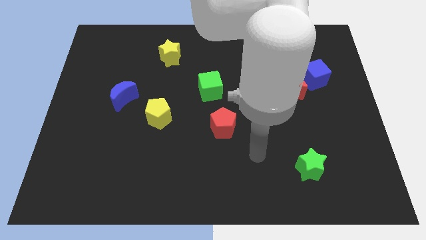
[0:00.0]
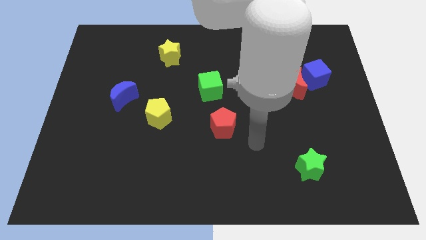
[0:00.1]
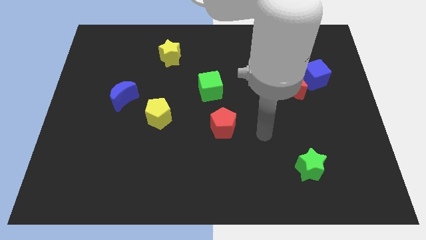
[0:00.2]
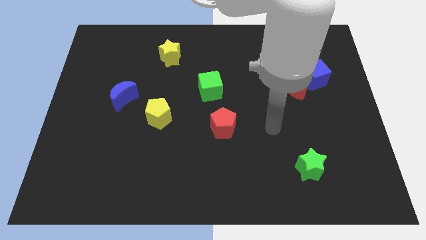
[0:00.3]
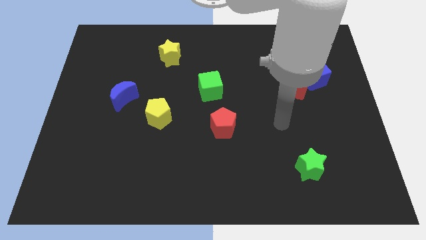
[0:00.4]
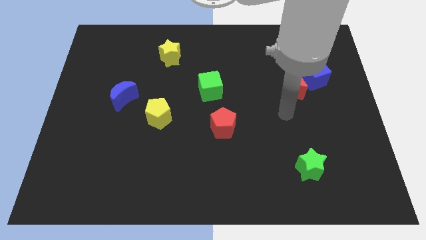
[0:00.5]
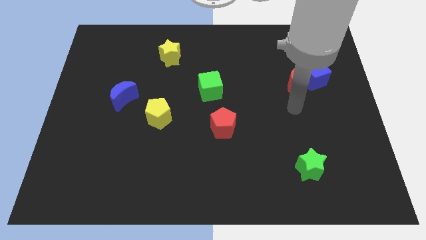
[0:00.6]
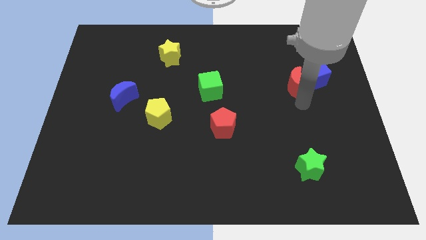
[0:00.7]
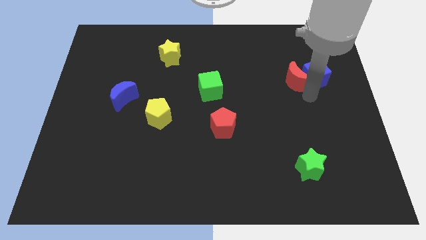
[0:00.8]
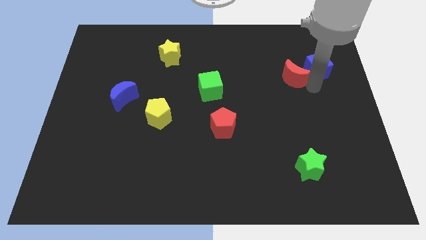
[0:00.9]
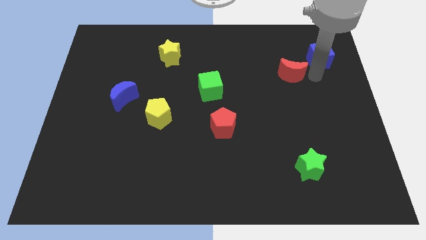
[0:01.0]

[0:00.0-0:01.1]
separate the red moon from the blue cube

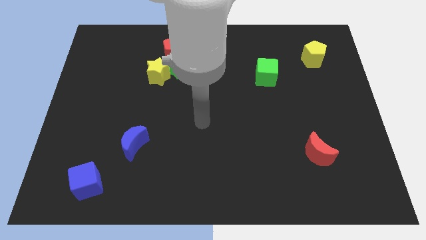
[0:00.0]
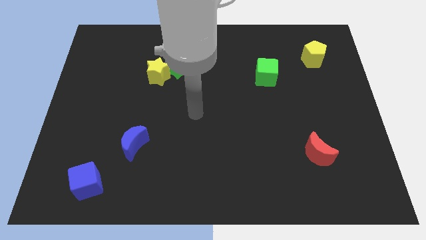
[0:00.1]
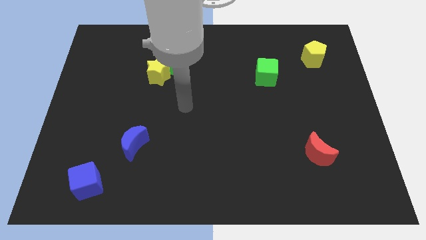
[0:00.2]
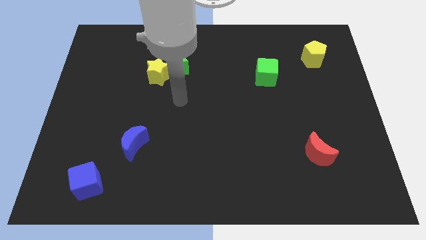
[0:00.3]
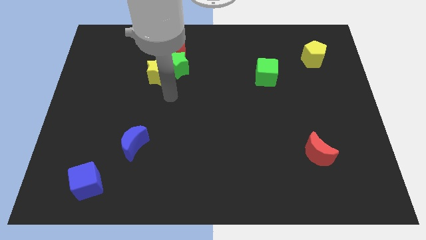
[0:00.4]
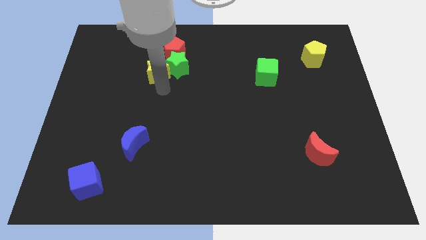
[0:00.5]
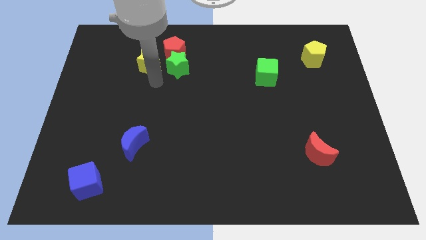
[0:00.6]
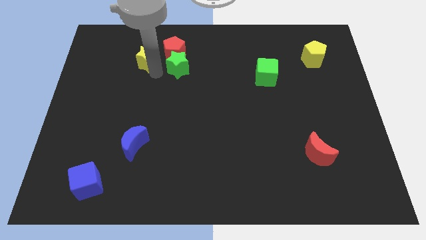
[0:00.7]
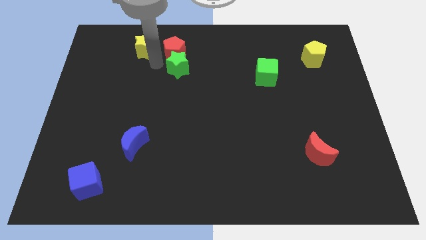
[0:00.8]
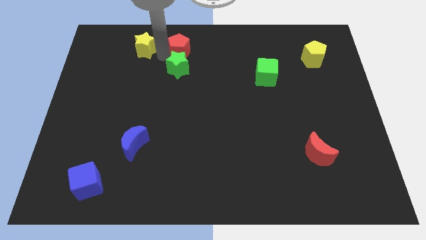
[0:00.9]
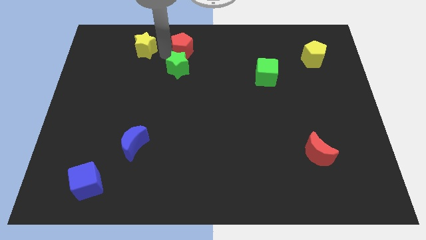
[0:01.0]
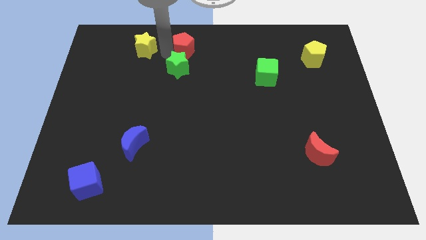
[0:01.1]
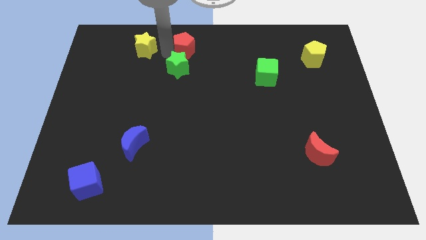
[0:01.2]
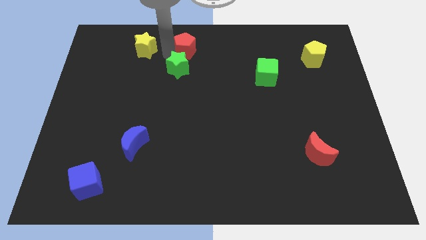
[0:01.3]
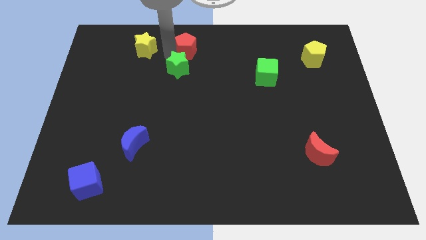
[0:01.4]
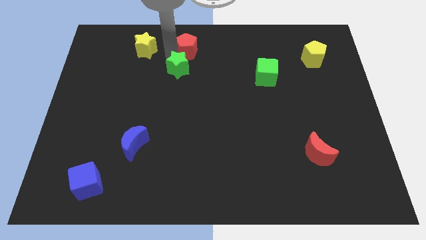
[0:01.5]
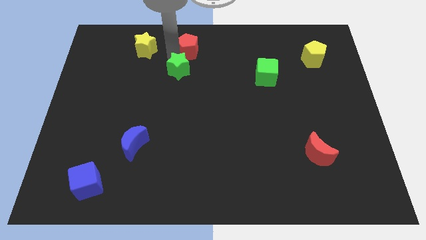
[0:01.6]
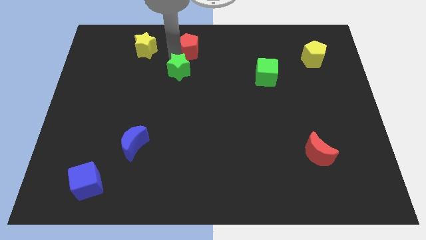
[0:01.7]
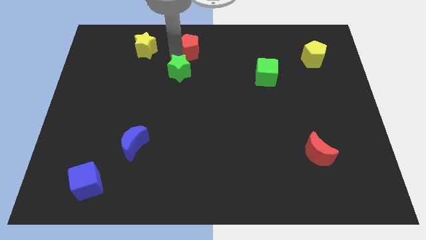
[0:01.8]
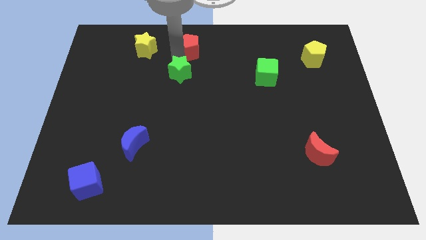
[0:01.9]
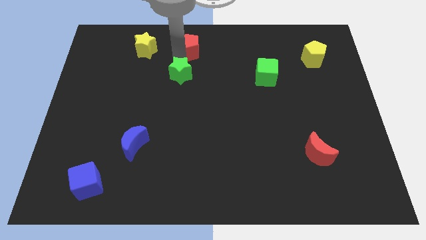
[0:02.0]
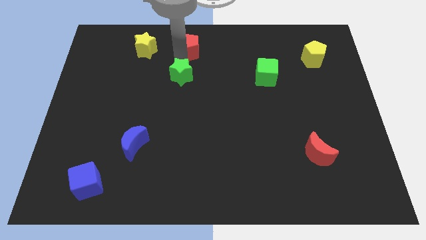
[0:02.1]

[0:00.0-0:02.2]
pull the green star apart from the red pentagon and yellow star

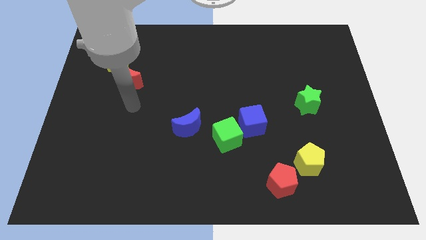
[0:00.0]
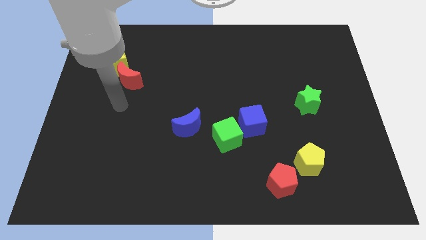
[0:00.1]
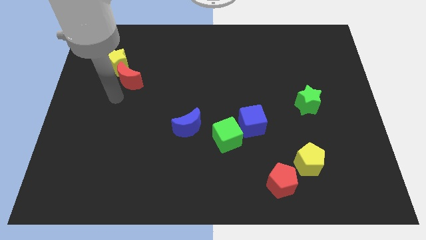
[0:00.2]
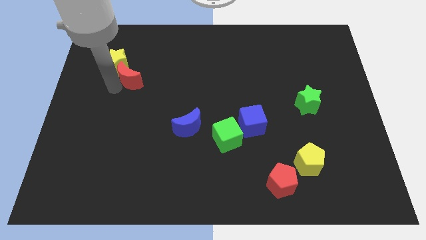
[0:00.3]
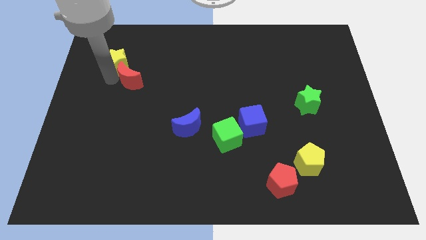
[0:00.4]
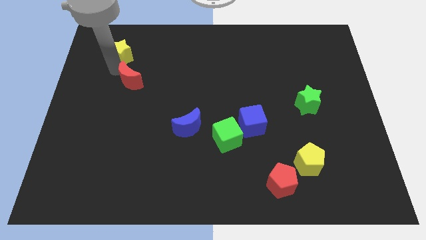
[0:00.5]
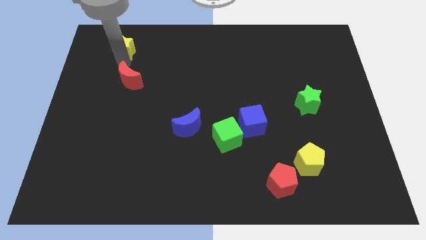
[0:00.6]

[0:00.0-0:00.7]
separate the red moon from the yellow star

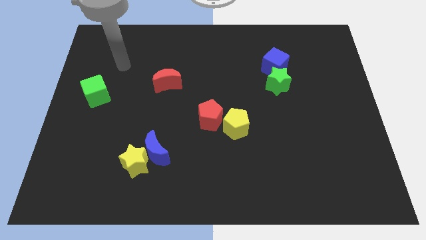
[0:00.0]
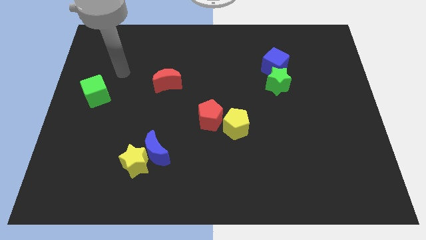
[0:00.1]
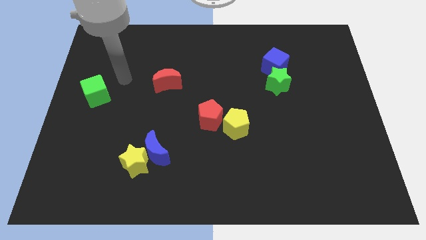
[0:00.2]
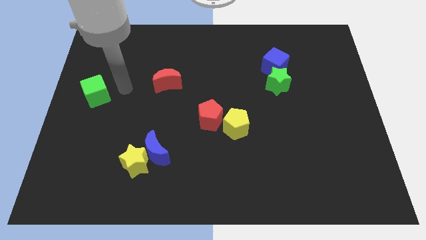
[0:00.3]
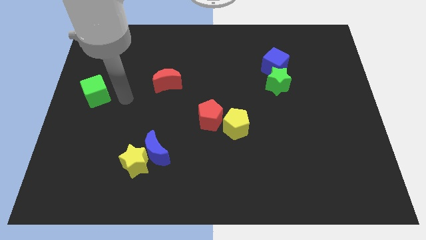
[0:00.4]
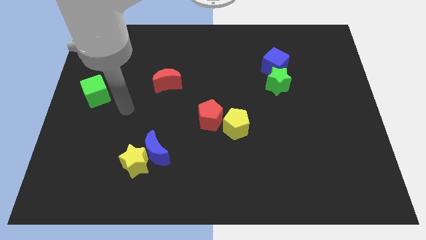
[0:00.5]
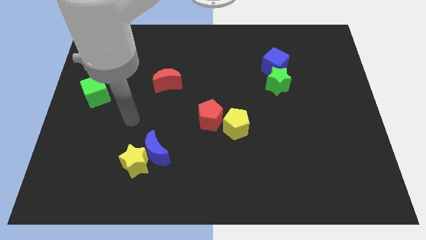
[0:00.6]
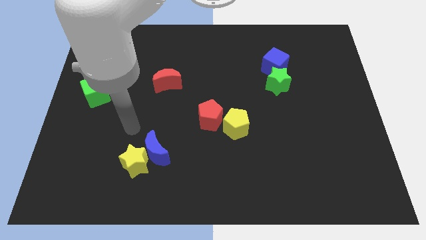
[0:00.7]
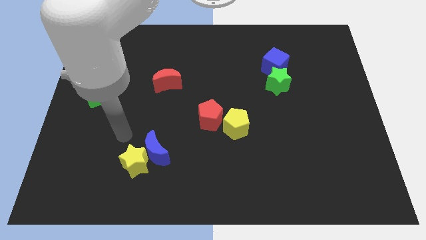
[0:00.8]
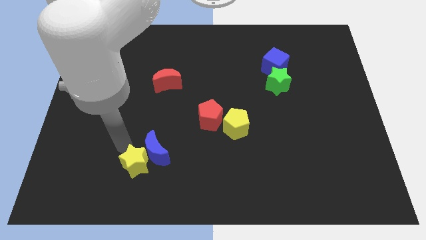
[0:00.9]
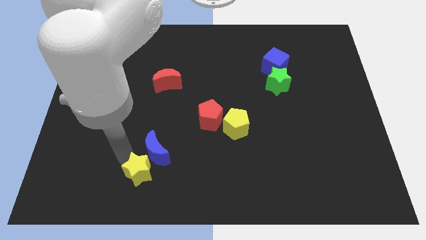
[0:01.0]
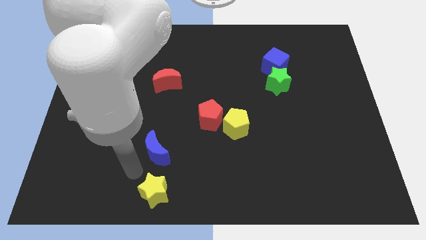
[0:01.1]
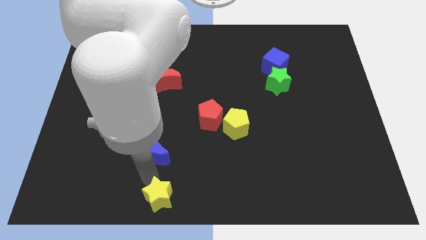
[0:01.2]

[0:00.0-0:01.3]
move the blue moon away from the yellow star

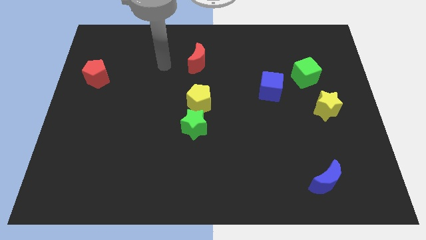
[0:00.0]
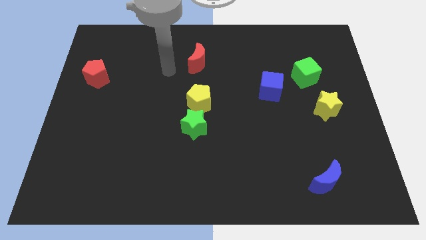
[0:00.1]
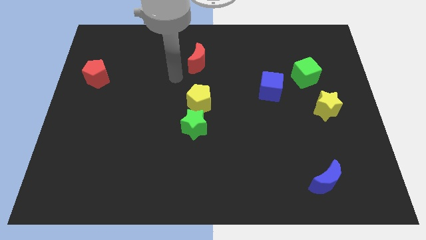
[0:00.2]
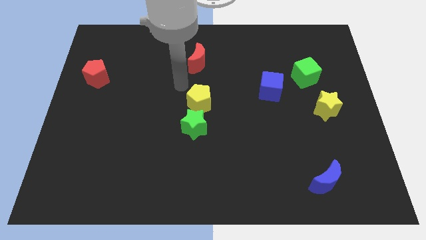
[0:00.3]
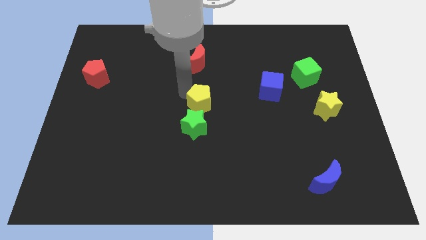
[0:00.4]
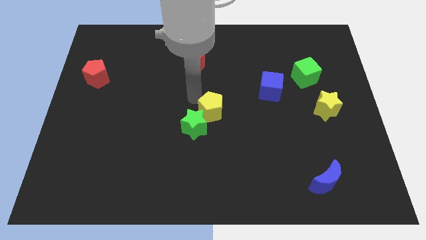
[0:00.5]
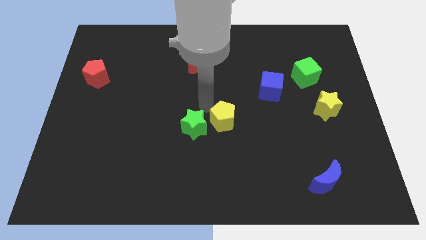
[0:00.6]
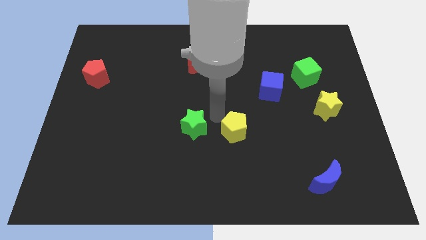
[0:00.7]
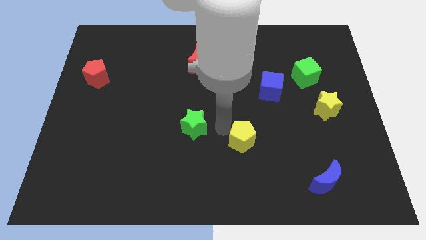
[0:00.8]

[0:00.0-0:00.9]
move the green star away from the yellow pentagon

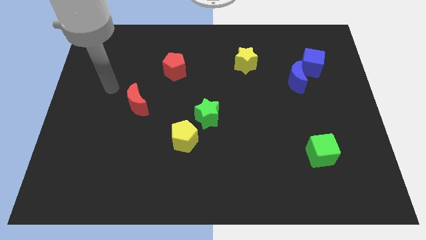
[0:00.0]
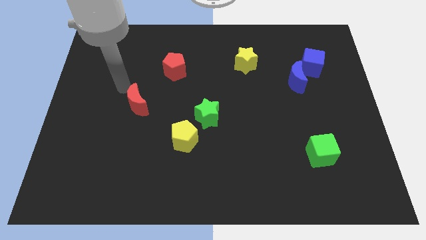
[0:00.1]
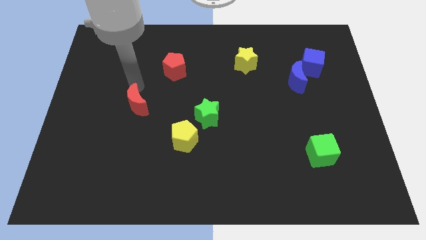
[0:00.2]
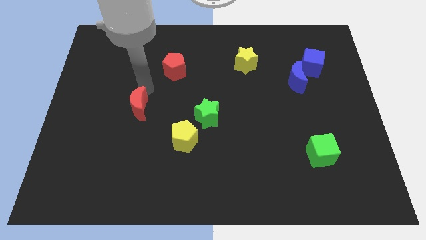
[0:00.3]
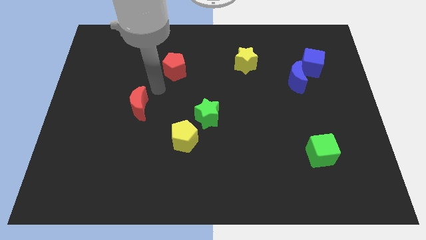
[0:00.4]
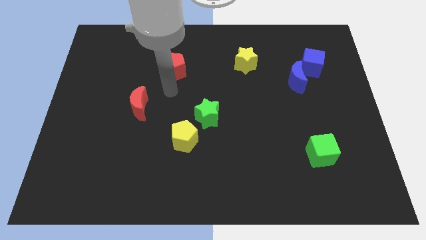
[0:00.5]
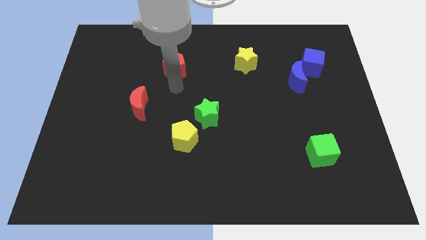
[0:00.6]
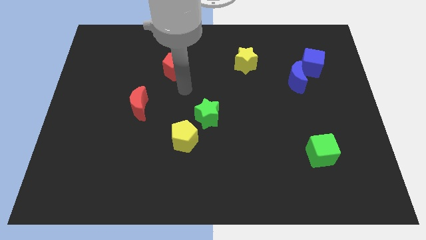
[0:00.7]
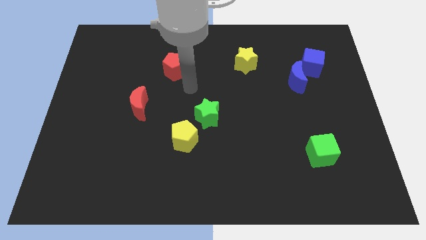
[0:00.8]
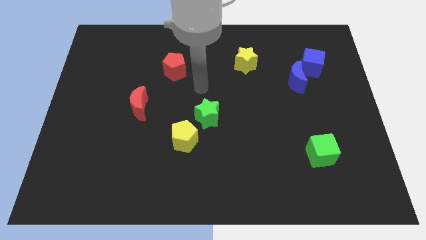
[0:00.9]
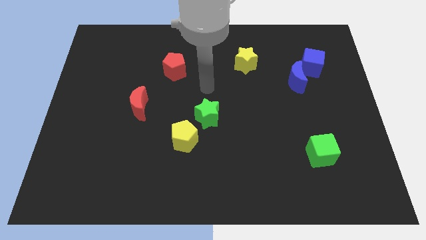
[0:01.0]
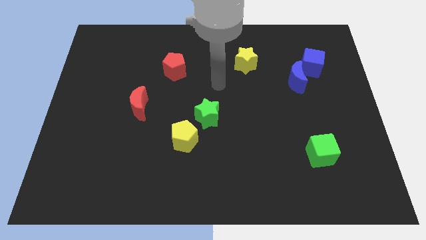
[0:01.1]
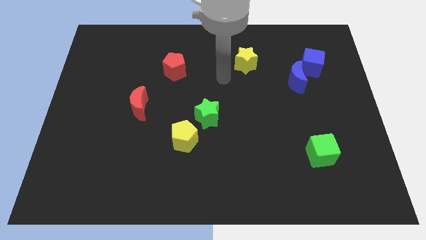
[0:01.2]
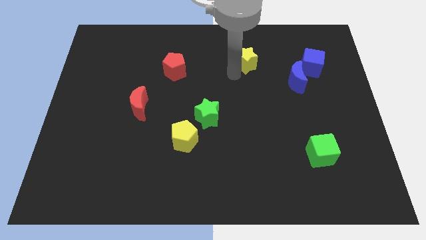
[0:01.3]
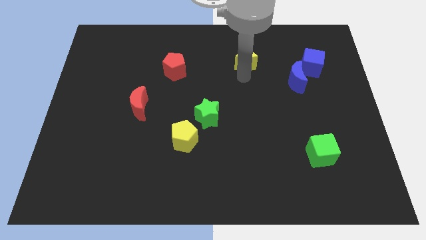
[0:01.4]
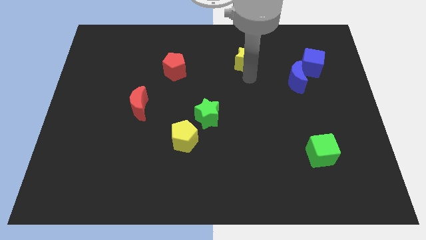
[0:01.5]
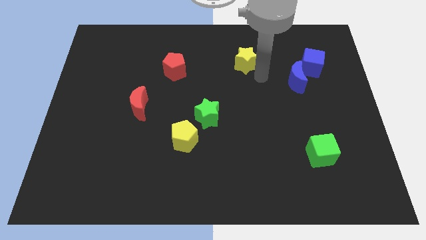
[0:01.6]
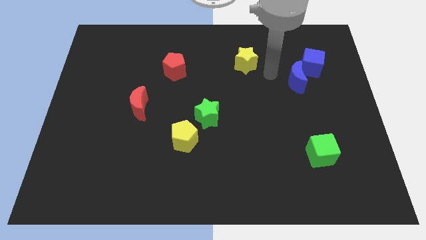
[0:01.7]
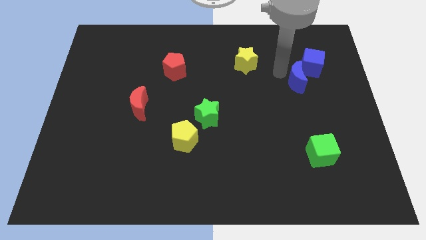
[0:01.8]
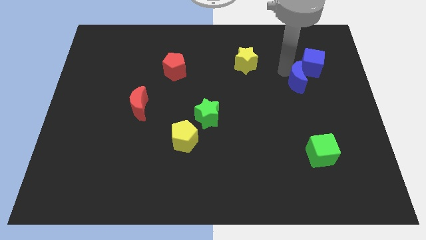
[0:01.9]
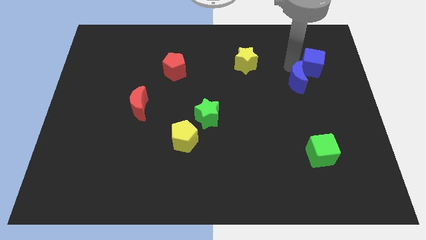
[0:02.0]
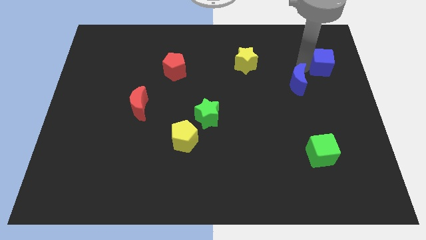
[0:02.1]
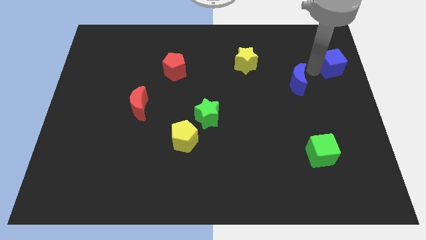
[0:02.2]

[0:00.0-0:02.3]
pull the blue moon apart from the blue cube

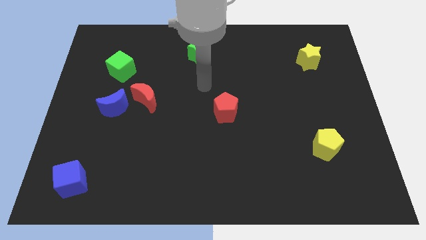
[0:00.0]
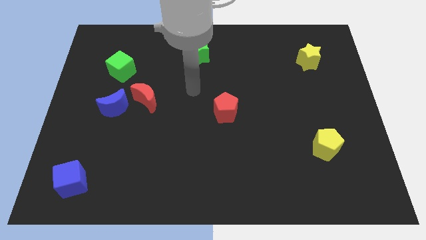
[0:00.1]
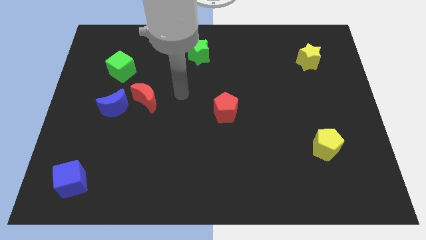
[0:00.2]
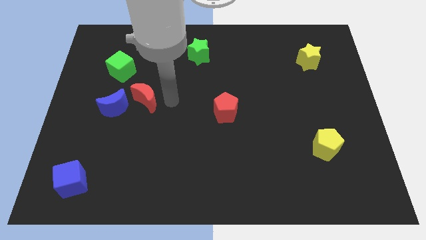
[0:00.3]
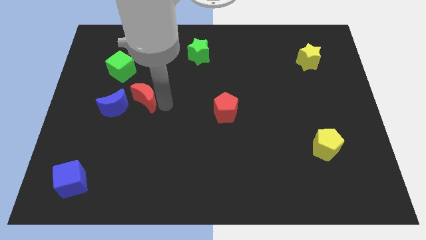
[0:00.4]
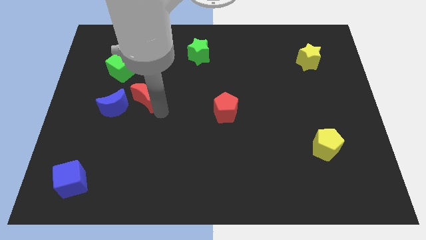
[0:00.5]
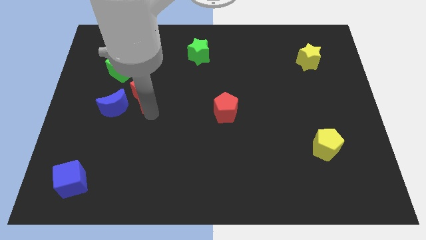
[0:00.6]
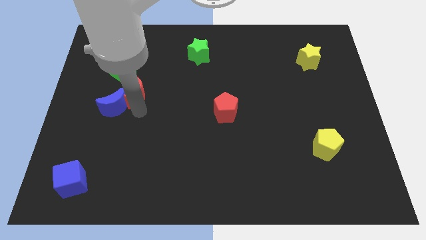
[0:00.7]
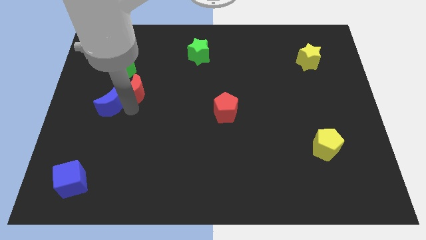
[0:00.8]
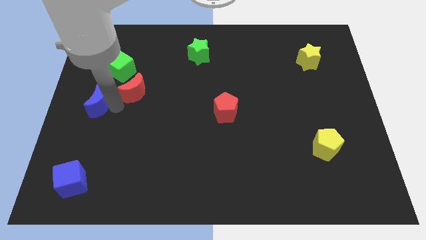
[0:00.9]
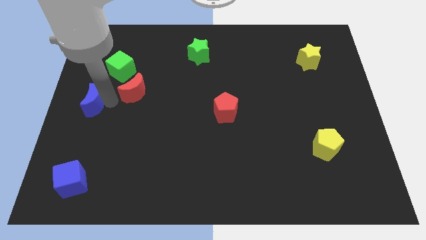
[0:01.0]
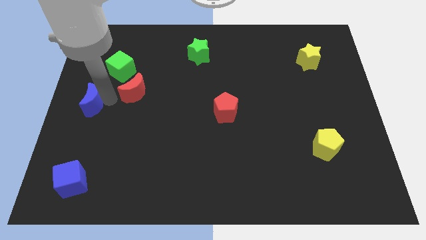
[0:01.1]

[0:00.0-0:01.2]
separate the red moon from the blue moon
